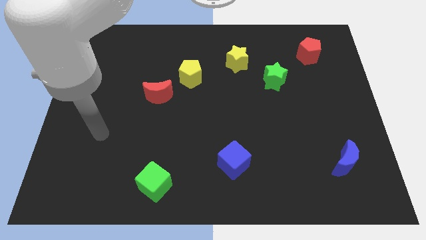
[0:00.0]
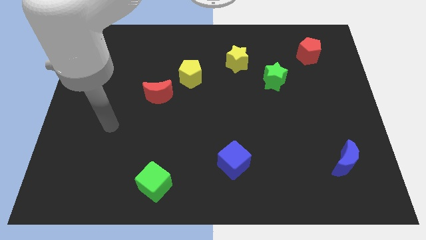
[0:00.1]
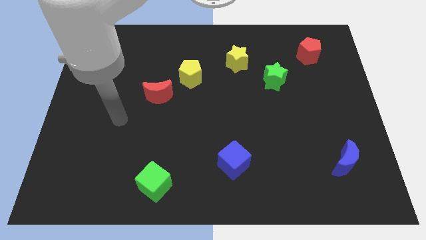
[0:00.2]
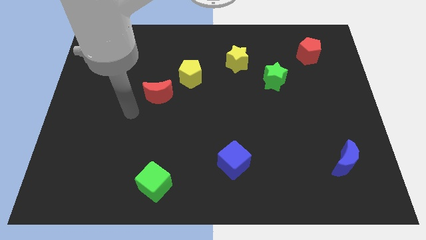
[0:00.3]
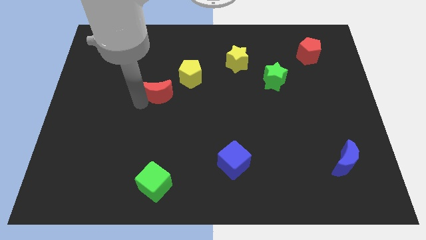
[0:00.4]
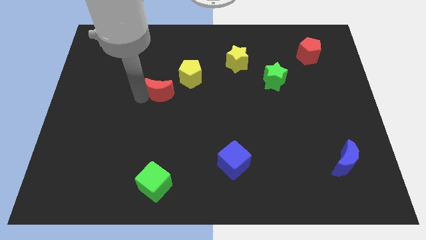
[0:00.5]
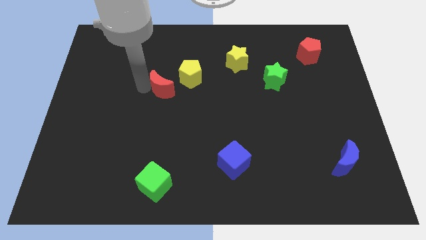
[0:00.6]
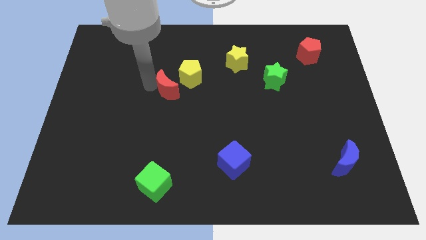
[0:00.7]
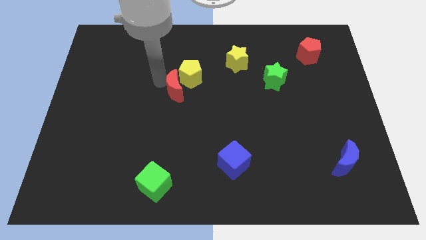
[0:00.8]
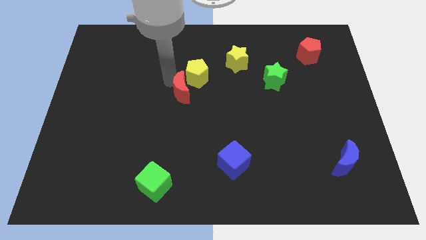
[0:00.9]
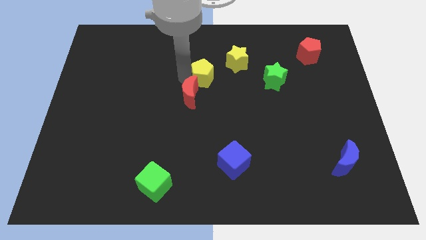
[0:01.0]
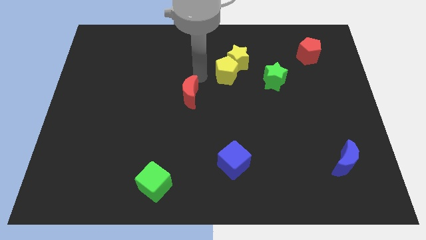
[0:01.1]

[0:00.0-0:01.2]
pull the red moon apart from the yellow pentagon

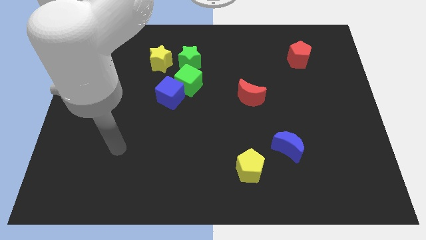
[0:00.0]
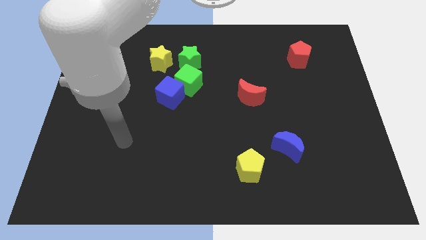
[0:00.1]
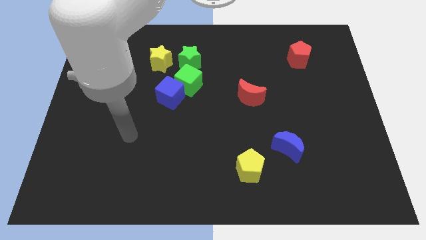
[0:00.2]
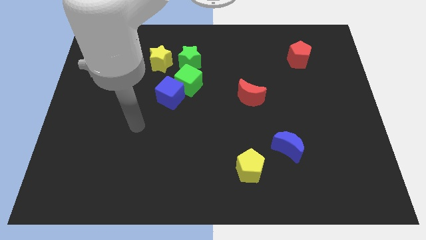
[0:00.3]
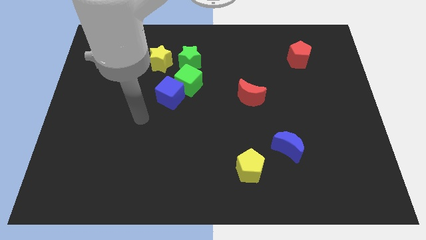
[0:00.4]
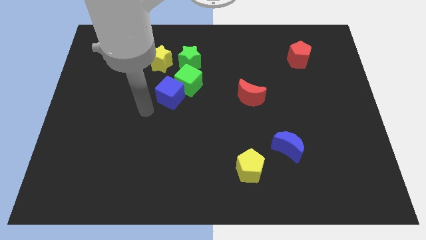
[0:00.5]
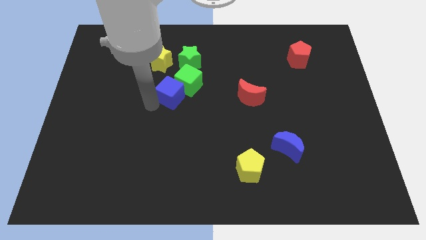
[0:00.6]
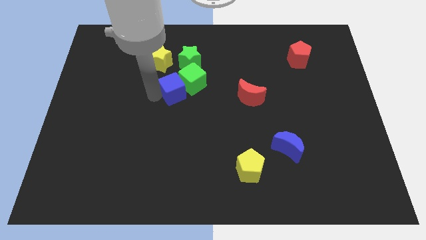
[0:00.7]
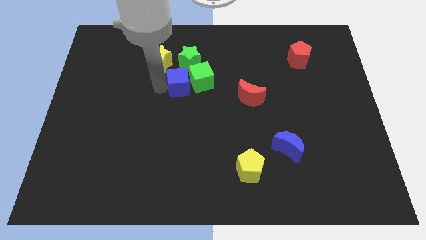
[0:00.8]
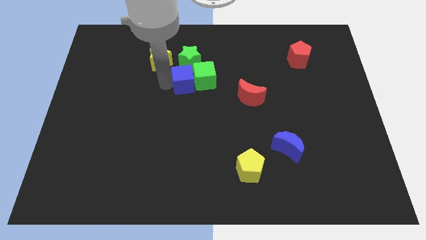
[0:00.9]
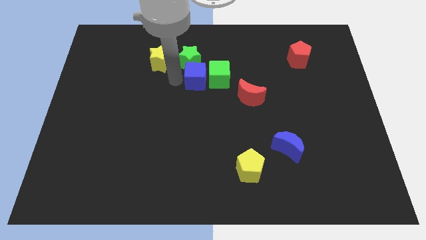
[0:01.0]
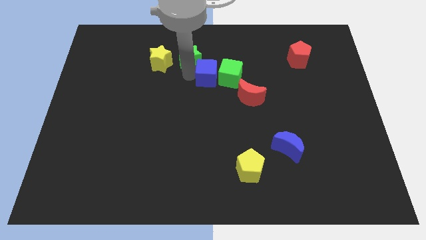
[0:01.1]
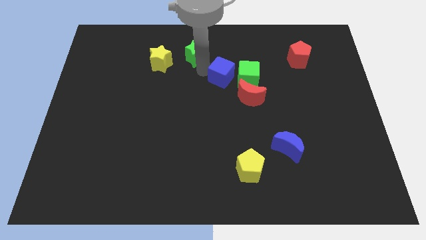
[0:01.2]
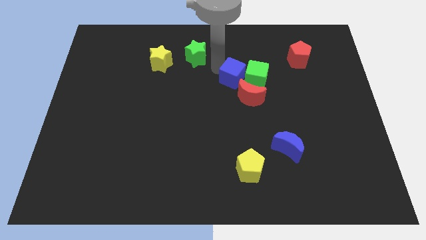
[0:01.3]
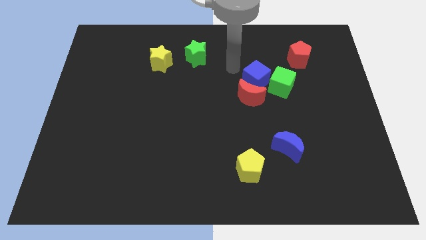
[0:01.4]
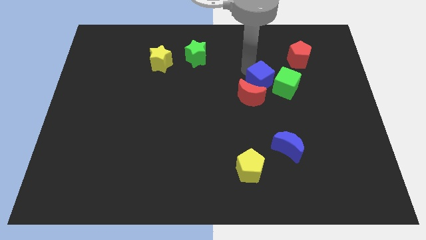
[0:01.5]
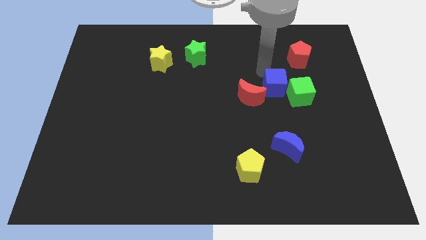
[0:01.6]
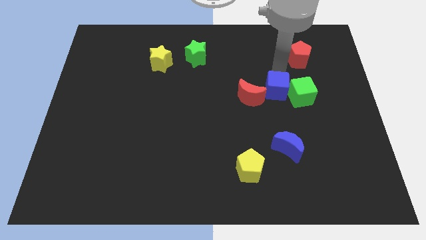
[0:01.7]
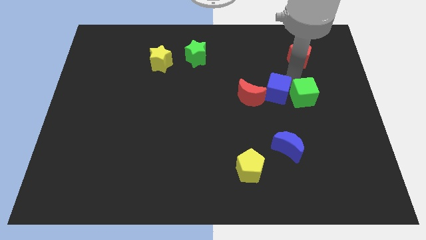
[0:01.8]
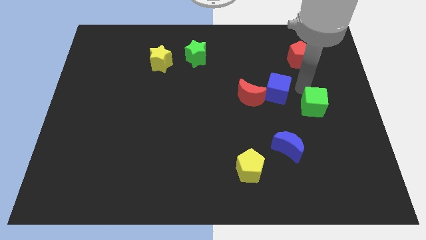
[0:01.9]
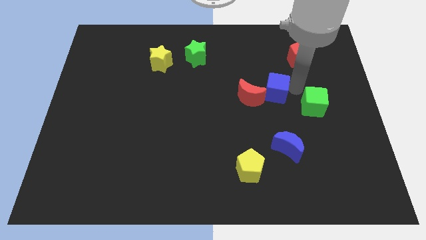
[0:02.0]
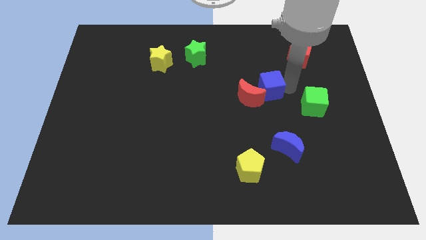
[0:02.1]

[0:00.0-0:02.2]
pull the blue cube apart from the green cube

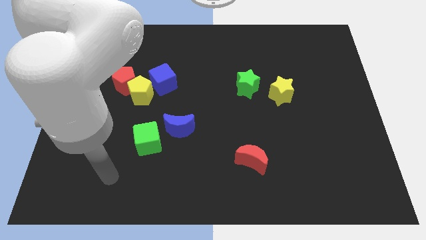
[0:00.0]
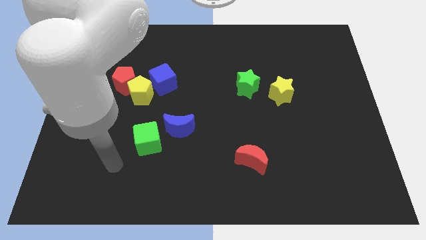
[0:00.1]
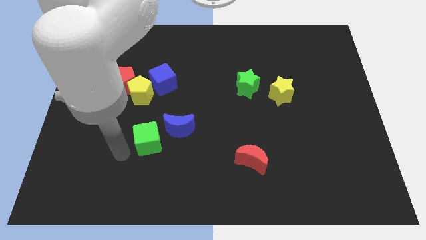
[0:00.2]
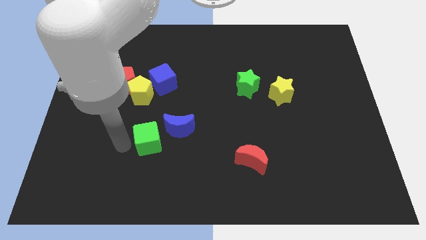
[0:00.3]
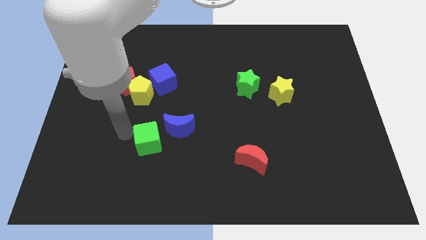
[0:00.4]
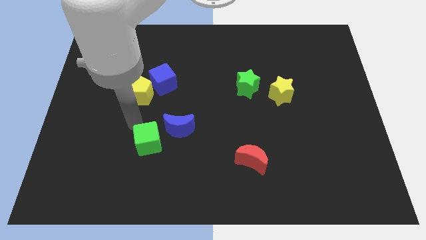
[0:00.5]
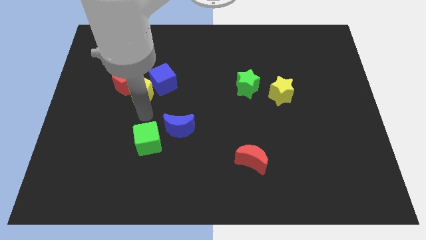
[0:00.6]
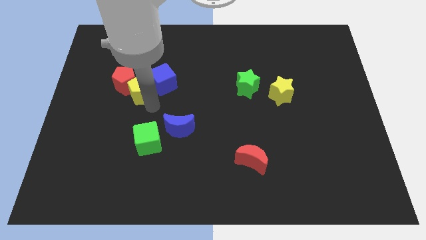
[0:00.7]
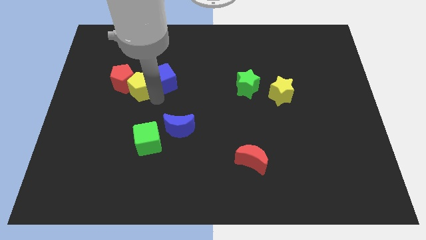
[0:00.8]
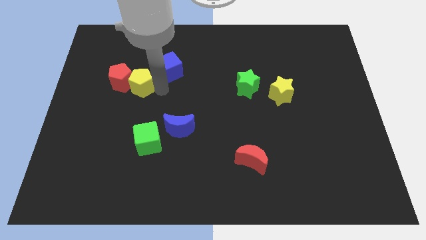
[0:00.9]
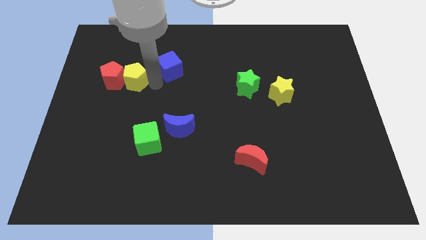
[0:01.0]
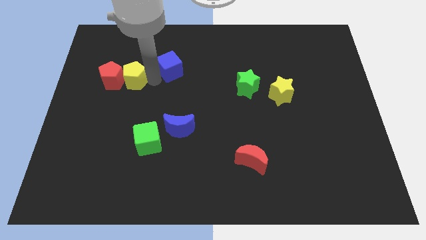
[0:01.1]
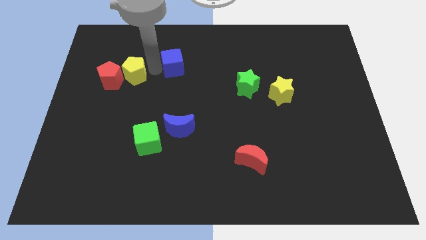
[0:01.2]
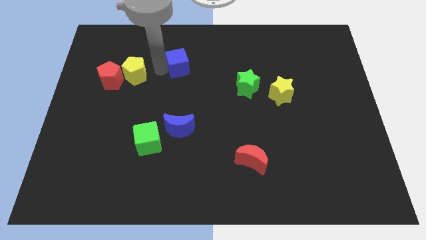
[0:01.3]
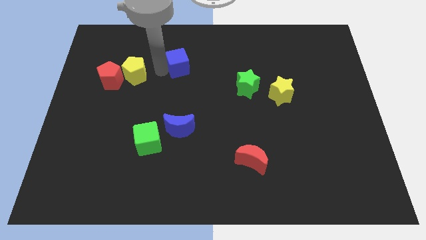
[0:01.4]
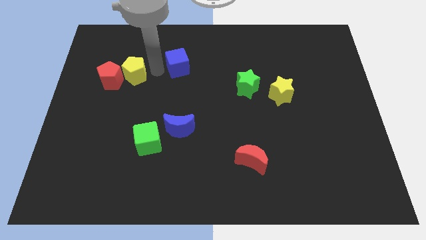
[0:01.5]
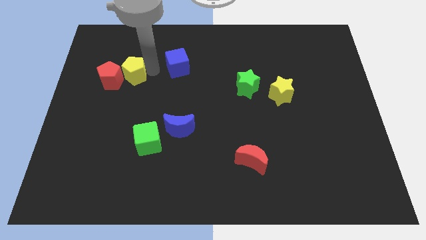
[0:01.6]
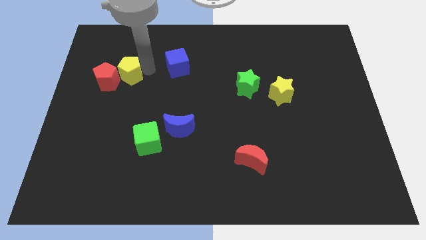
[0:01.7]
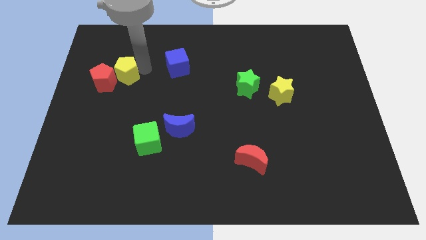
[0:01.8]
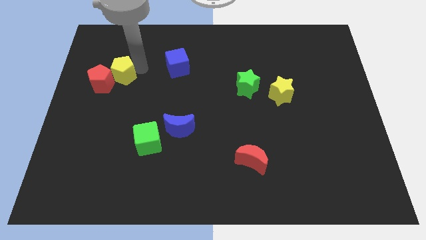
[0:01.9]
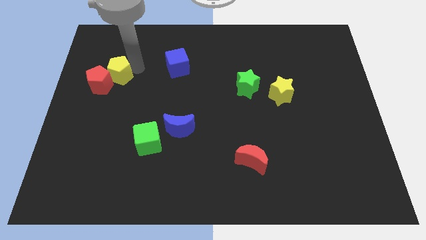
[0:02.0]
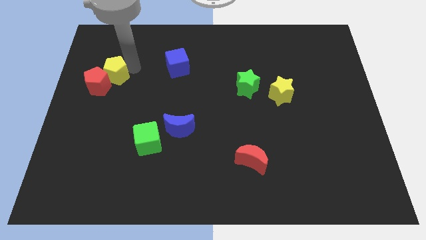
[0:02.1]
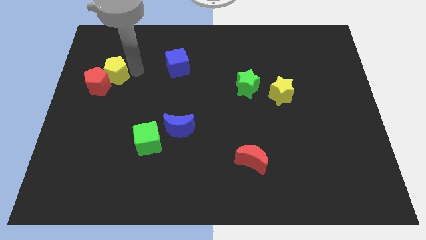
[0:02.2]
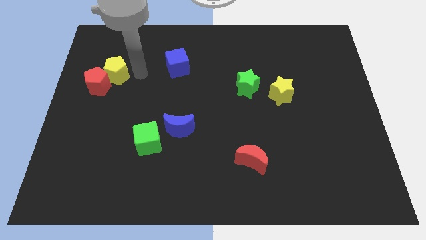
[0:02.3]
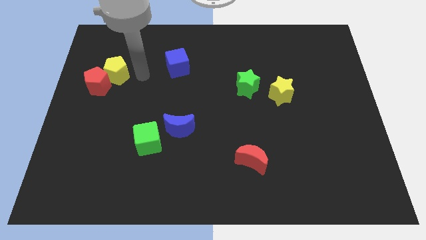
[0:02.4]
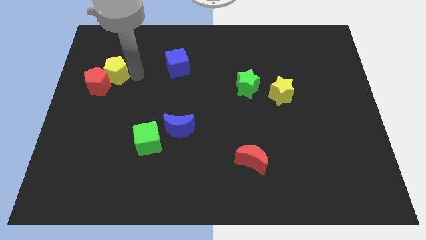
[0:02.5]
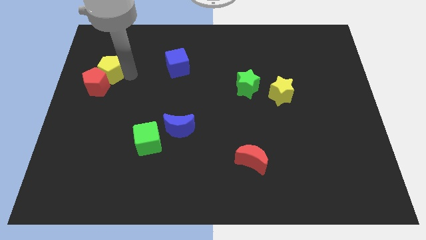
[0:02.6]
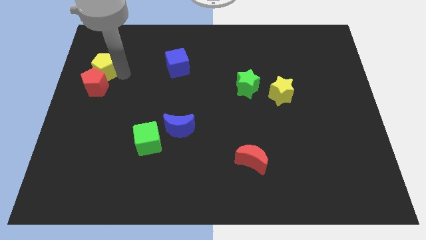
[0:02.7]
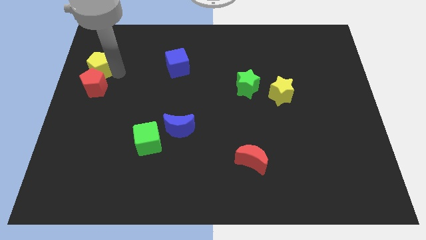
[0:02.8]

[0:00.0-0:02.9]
pull the yellow pentagon apart from the red pentagon and blue cube

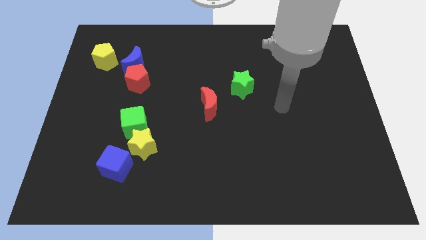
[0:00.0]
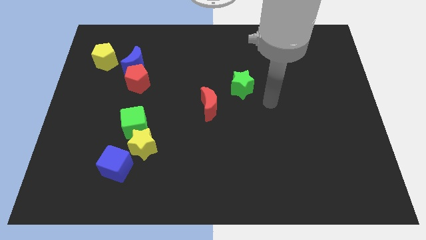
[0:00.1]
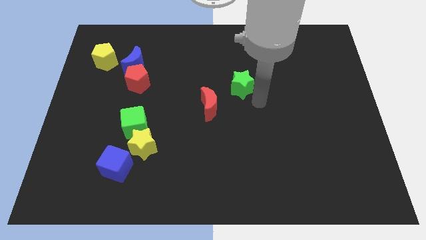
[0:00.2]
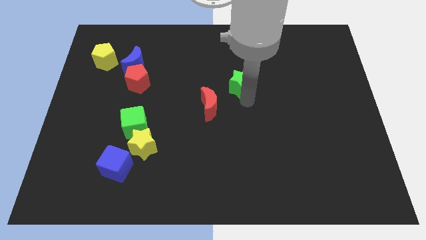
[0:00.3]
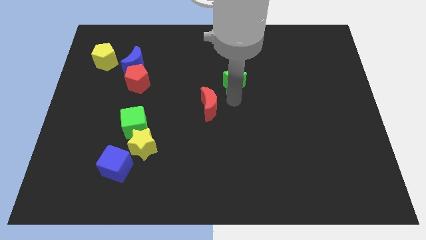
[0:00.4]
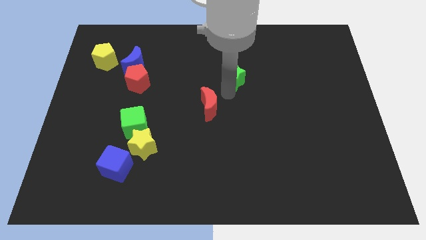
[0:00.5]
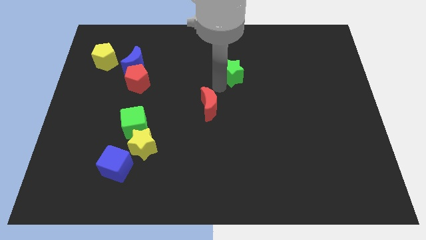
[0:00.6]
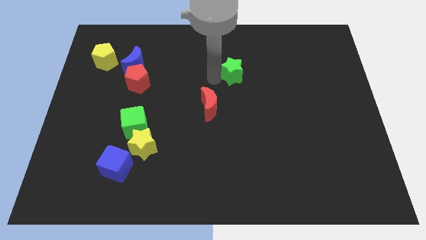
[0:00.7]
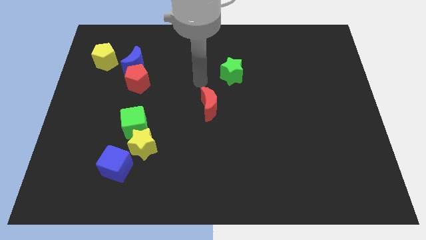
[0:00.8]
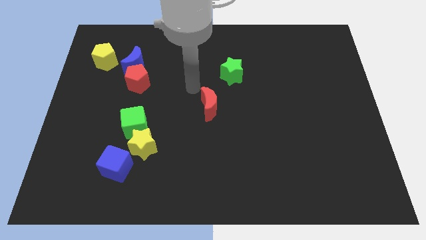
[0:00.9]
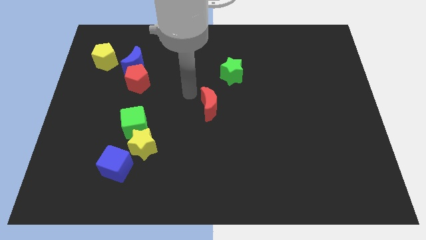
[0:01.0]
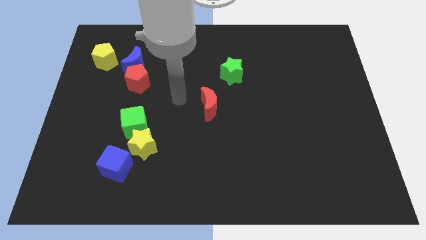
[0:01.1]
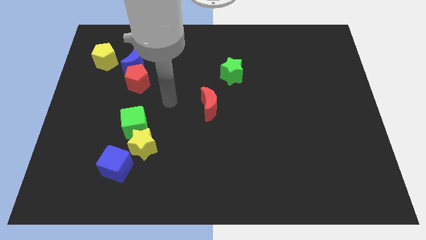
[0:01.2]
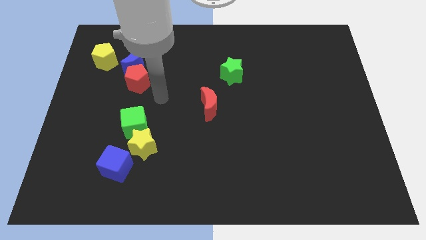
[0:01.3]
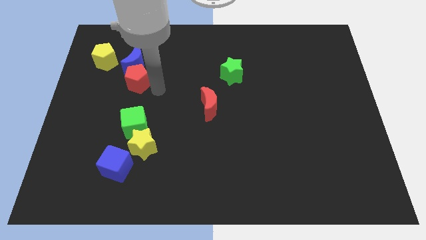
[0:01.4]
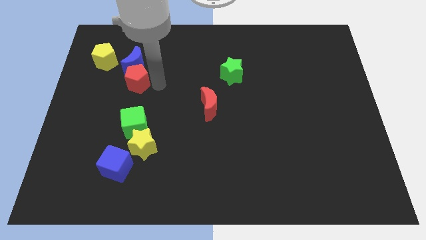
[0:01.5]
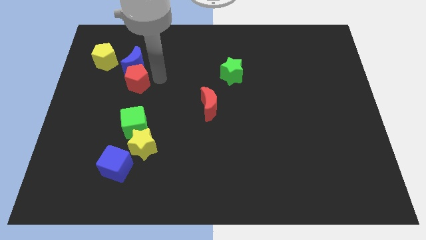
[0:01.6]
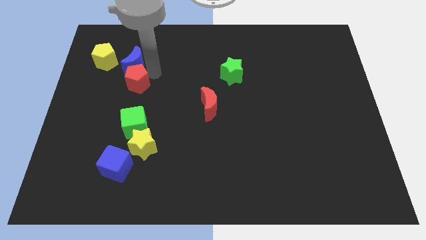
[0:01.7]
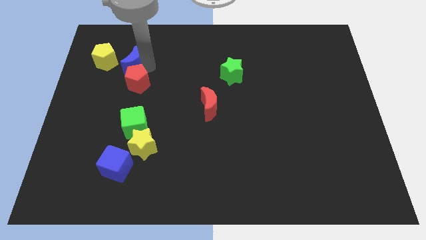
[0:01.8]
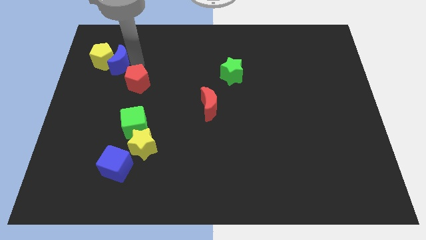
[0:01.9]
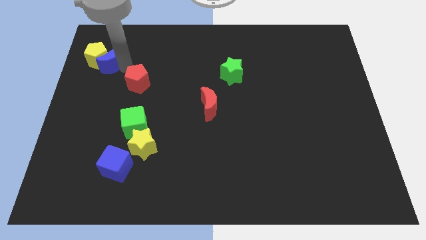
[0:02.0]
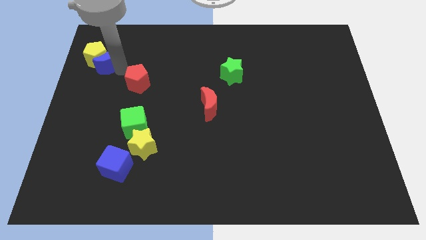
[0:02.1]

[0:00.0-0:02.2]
move the red pentagon away from the blue moon

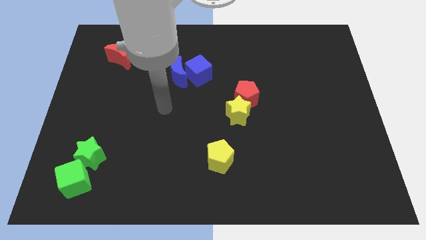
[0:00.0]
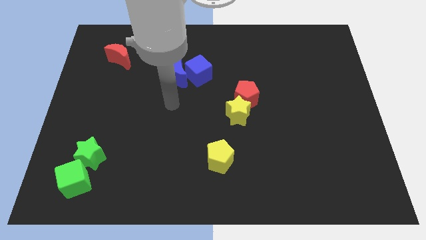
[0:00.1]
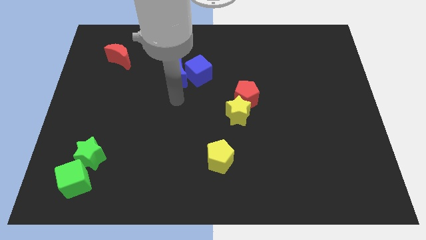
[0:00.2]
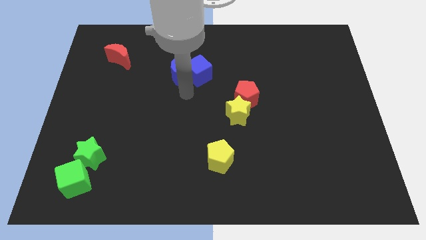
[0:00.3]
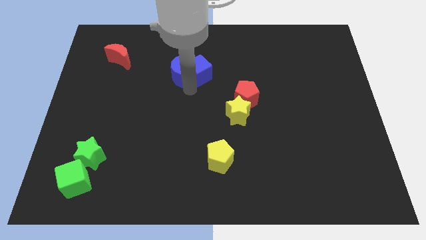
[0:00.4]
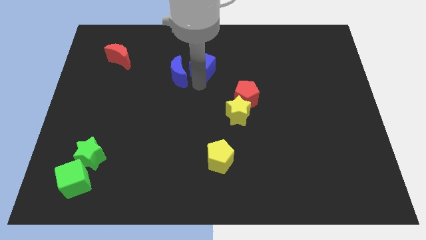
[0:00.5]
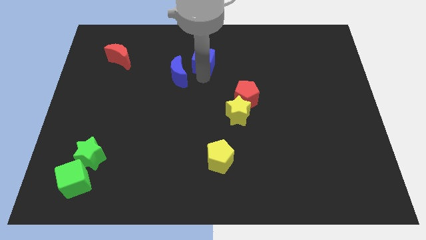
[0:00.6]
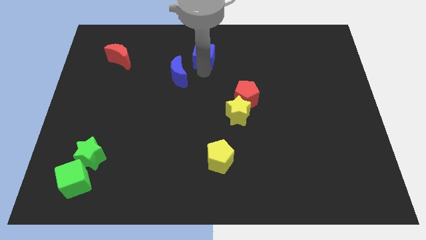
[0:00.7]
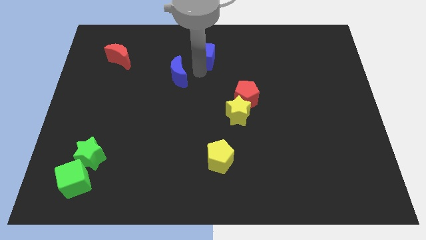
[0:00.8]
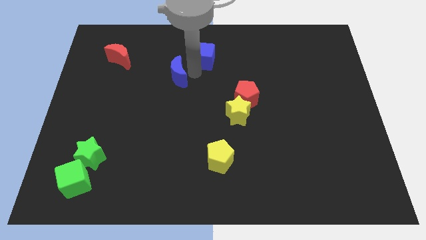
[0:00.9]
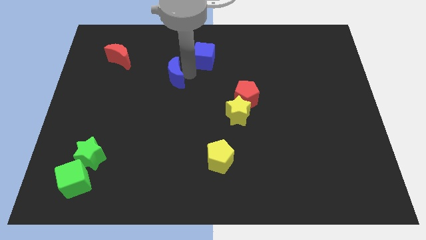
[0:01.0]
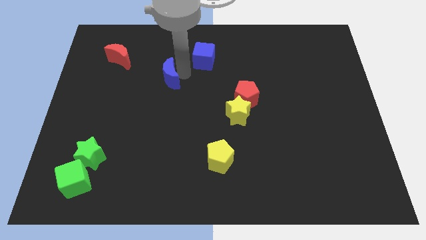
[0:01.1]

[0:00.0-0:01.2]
separate the blue moon from the blue cube
